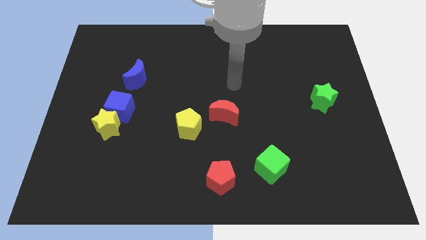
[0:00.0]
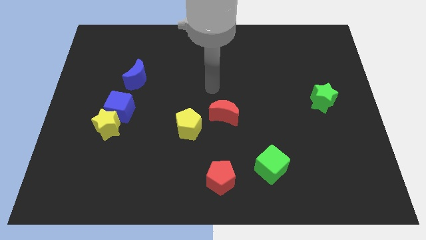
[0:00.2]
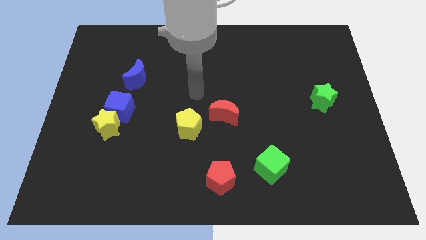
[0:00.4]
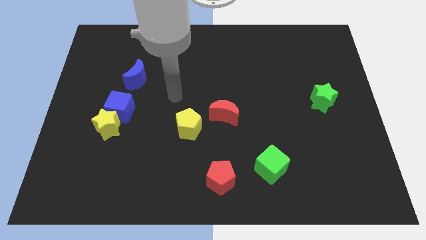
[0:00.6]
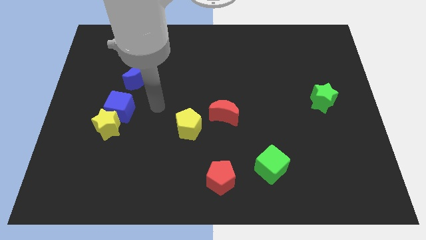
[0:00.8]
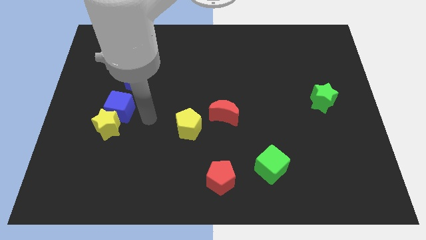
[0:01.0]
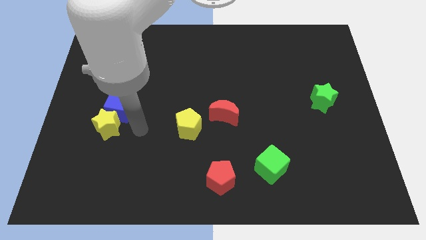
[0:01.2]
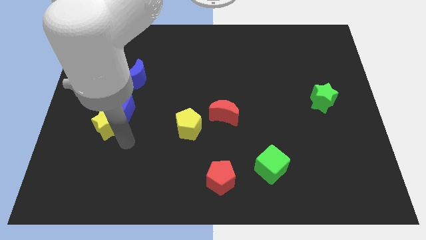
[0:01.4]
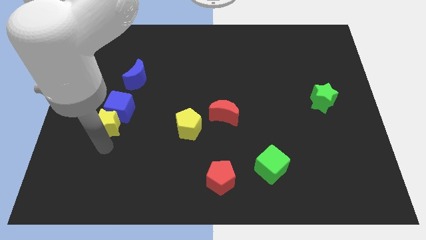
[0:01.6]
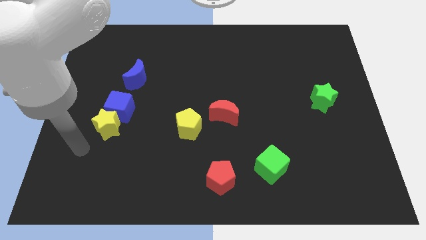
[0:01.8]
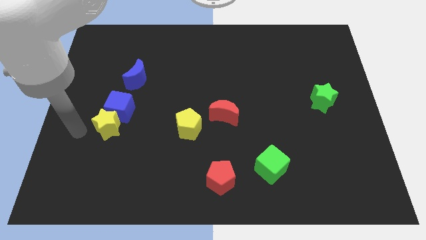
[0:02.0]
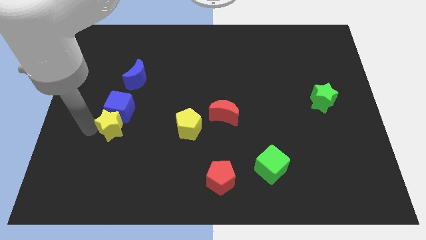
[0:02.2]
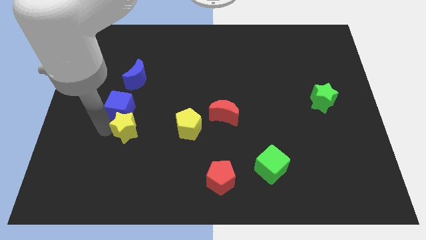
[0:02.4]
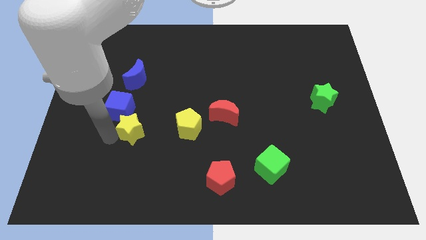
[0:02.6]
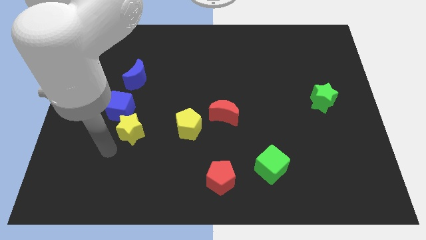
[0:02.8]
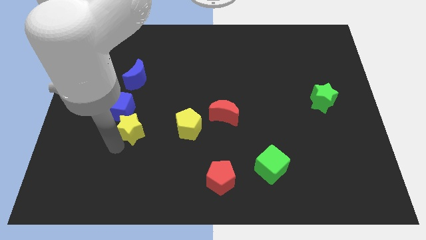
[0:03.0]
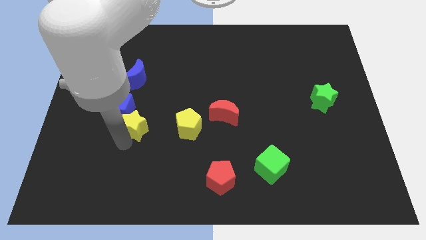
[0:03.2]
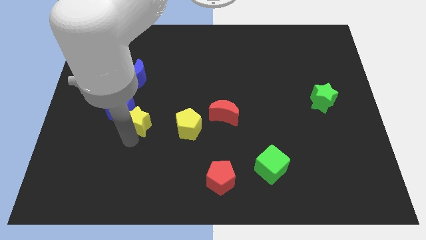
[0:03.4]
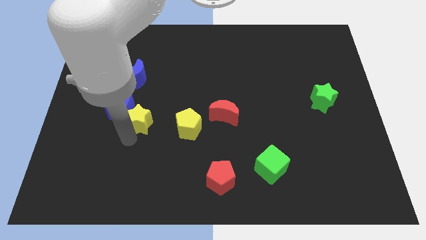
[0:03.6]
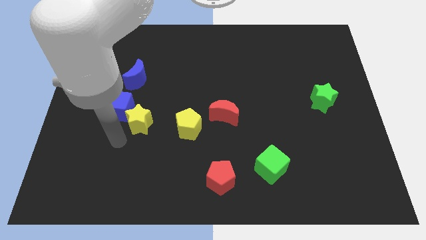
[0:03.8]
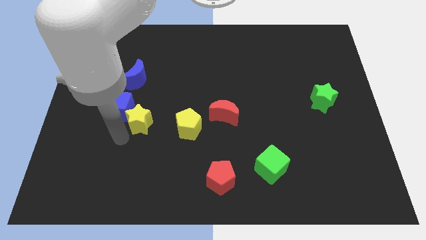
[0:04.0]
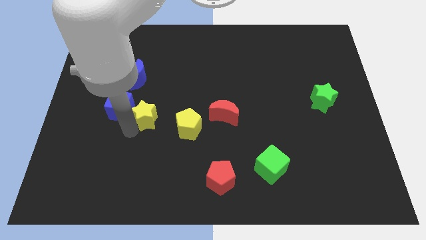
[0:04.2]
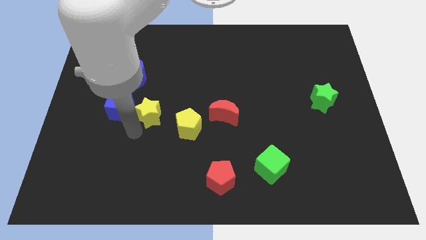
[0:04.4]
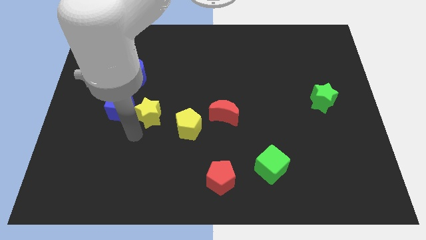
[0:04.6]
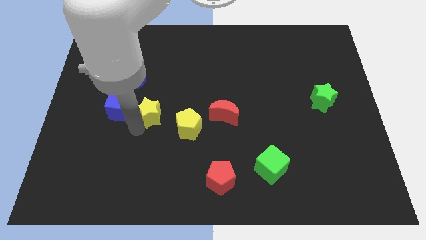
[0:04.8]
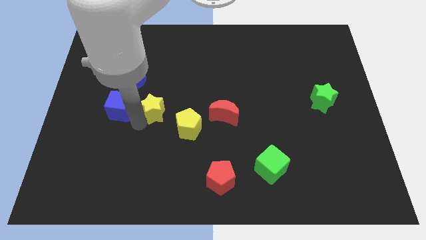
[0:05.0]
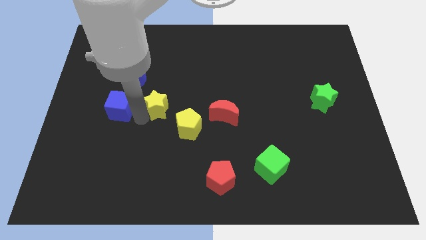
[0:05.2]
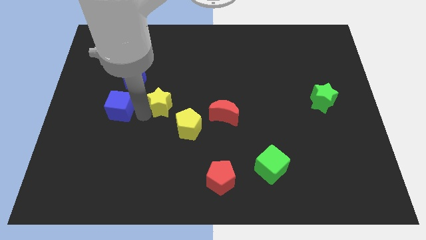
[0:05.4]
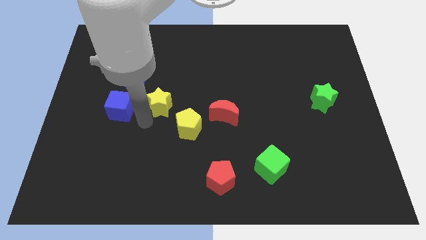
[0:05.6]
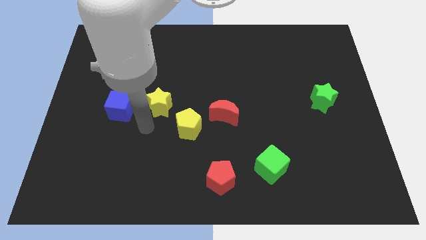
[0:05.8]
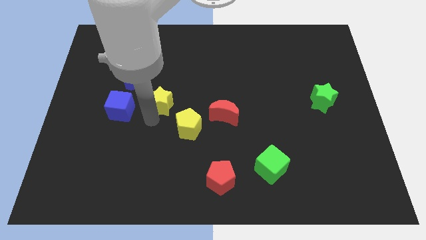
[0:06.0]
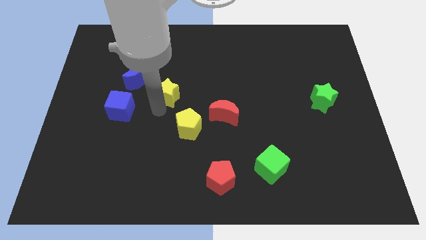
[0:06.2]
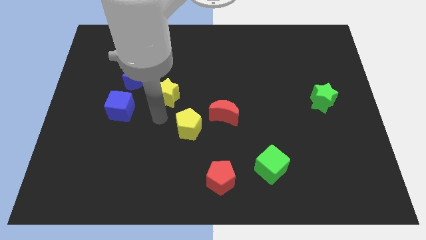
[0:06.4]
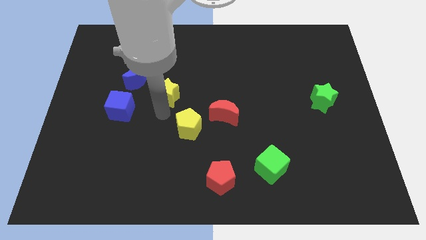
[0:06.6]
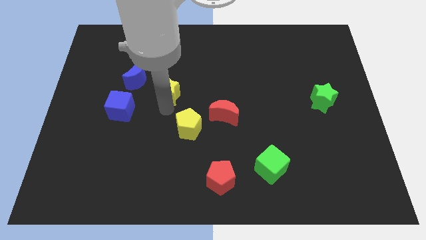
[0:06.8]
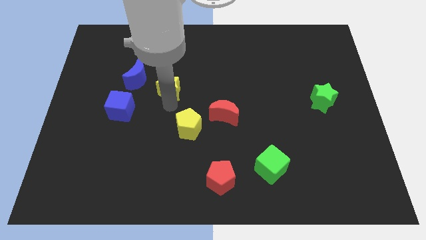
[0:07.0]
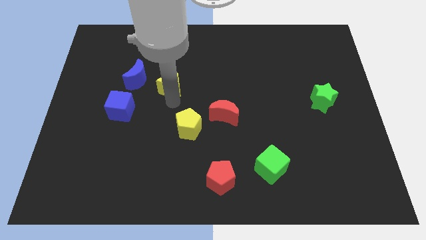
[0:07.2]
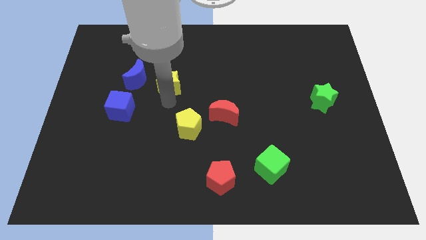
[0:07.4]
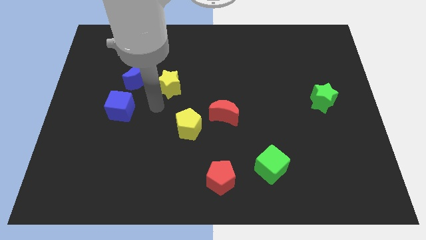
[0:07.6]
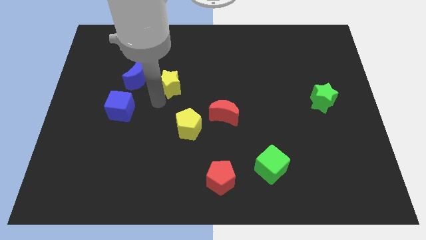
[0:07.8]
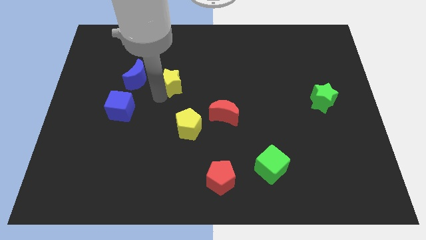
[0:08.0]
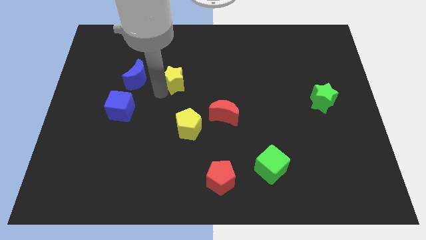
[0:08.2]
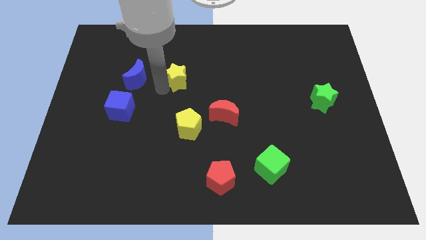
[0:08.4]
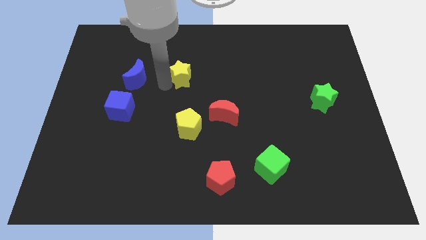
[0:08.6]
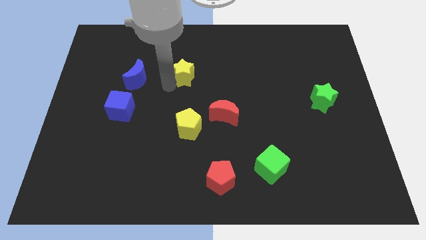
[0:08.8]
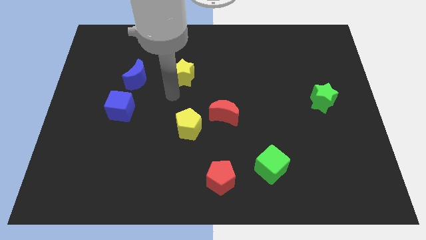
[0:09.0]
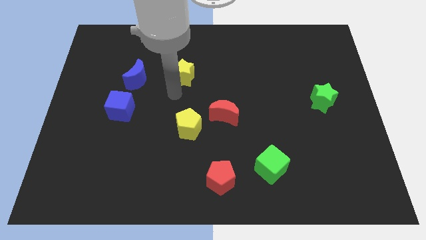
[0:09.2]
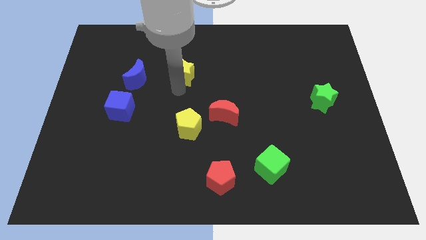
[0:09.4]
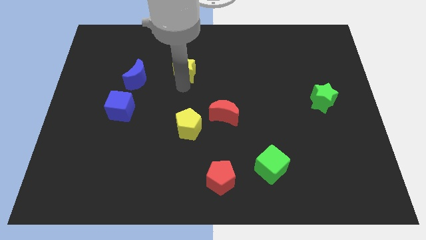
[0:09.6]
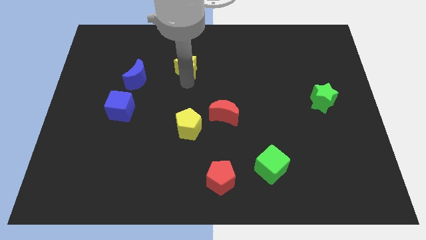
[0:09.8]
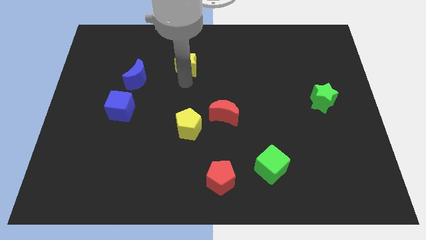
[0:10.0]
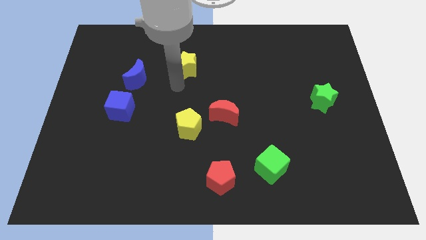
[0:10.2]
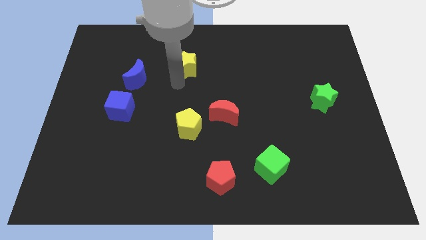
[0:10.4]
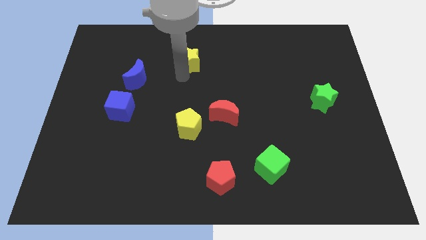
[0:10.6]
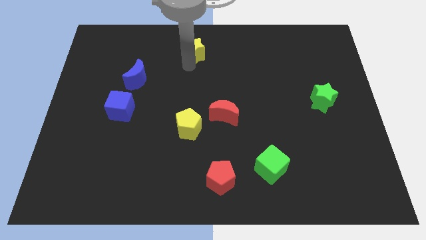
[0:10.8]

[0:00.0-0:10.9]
put the yellow star to the top side

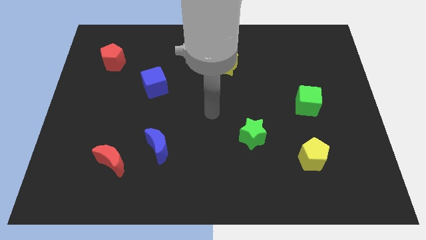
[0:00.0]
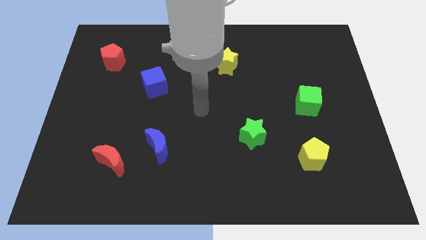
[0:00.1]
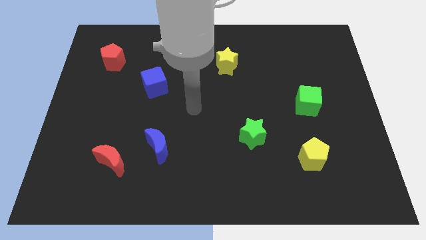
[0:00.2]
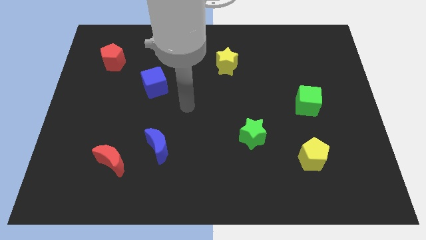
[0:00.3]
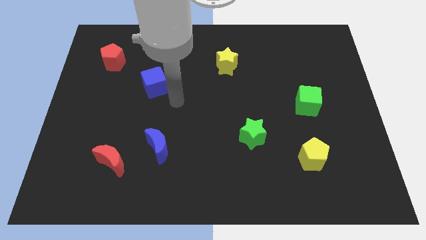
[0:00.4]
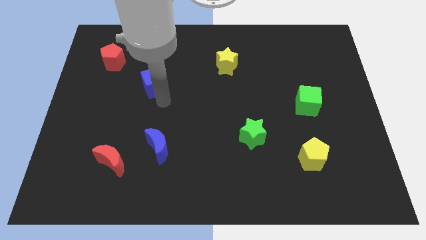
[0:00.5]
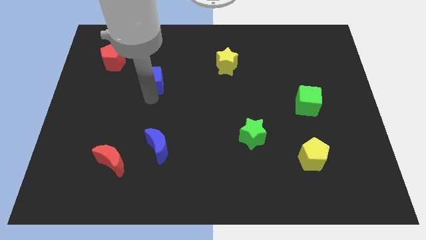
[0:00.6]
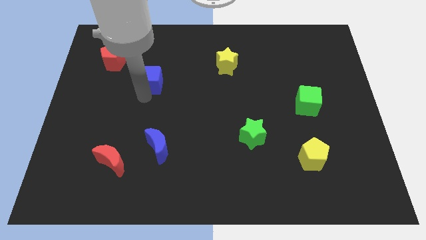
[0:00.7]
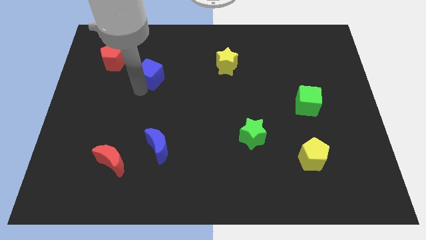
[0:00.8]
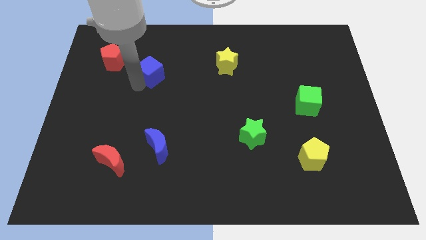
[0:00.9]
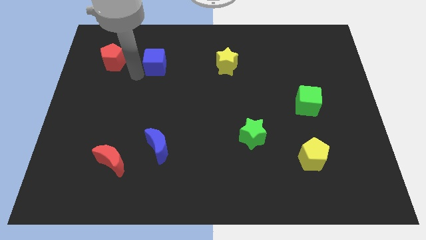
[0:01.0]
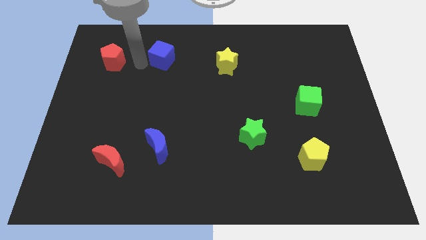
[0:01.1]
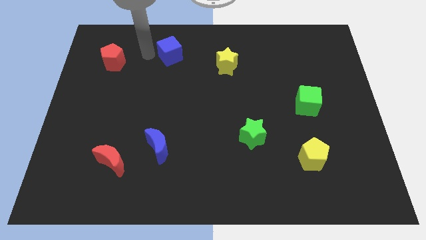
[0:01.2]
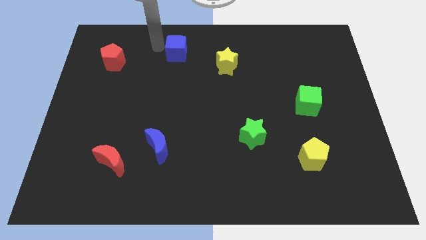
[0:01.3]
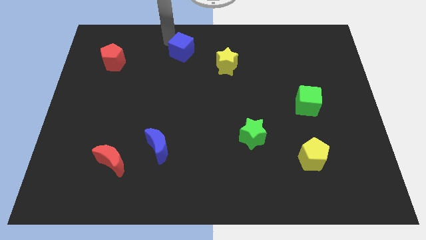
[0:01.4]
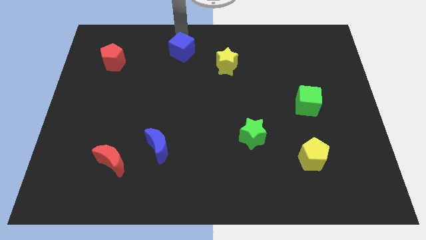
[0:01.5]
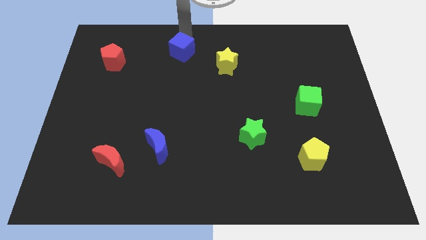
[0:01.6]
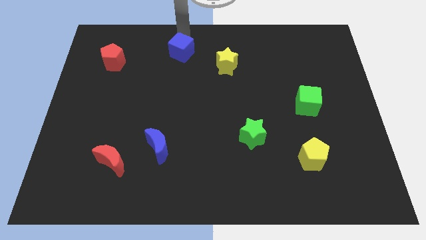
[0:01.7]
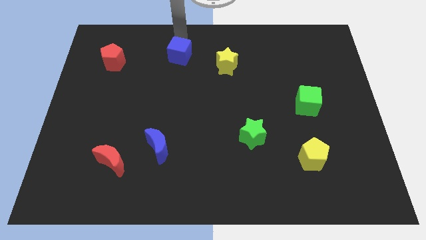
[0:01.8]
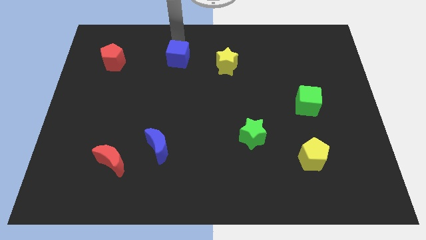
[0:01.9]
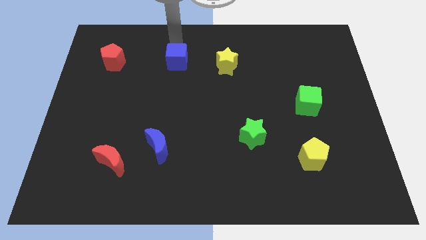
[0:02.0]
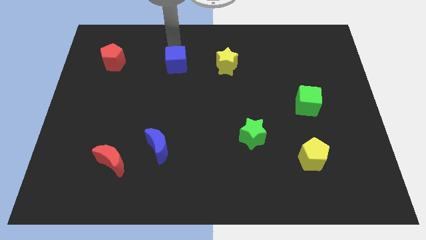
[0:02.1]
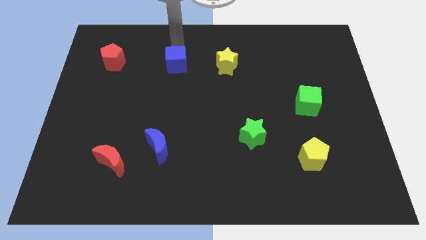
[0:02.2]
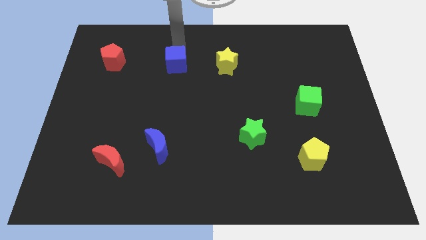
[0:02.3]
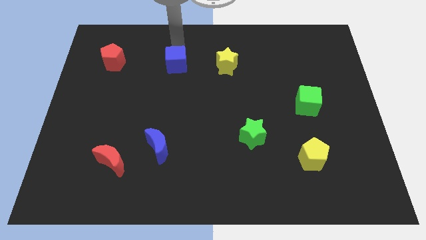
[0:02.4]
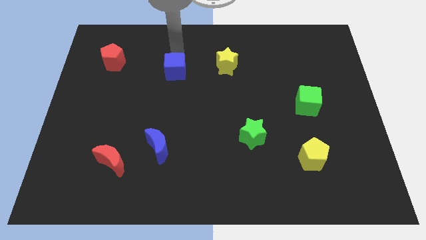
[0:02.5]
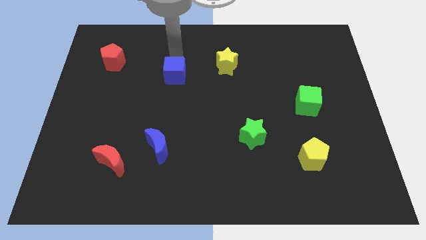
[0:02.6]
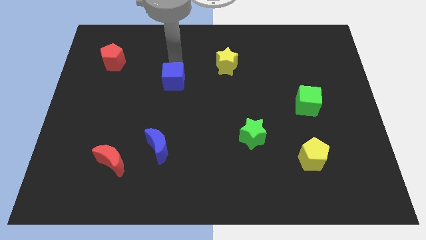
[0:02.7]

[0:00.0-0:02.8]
move the blue cube to the center of the board
